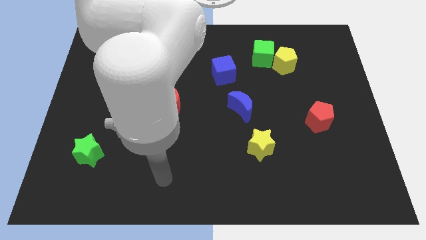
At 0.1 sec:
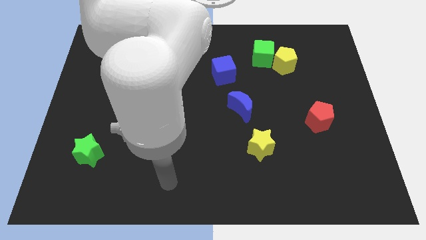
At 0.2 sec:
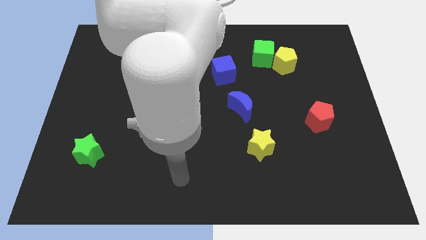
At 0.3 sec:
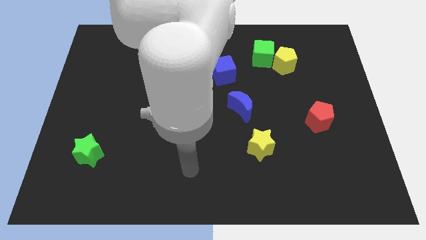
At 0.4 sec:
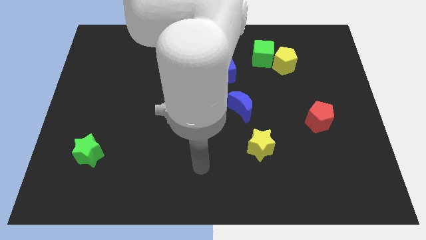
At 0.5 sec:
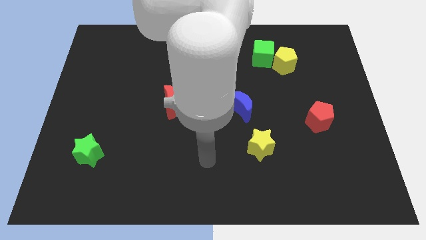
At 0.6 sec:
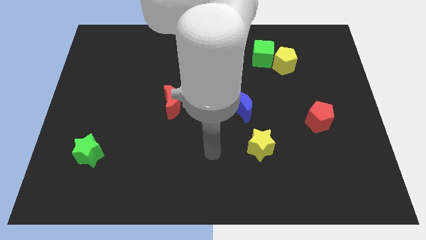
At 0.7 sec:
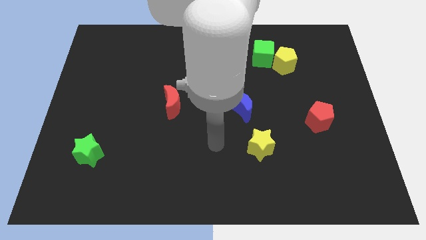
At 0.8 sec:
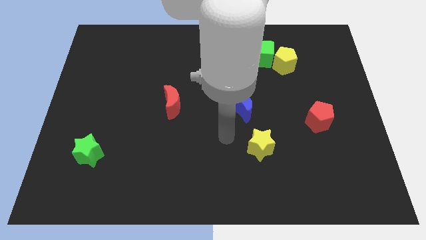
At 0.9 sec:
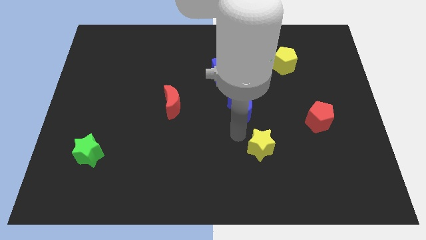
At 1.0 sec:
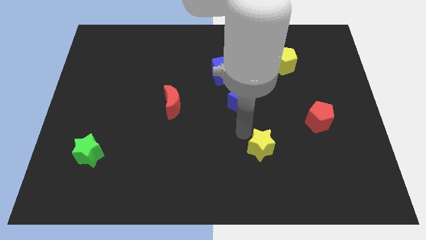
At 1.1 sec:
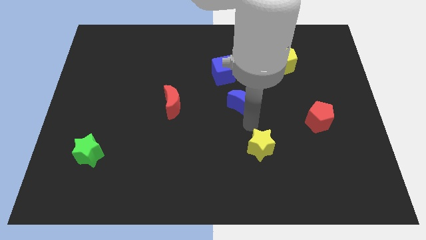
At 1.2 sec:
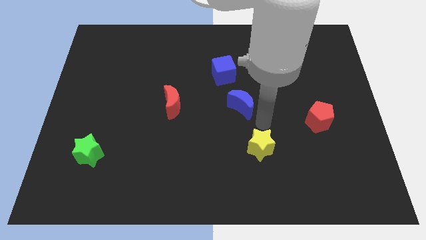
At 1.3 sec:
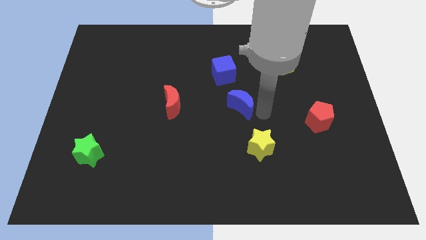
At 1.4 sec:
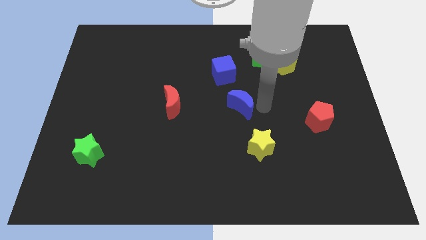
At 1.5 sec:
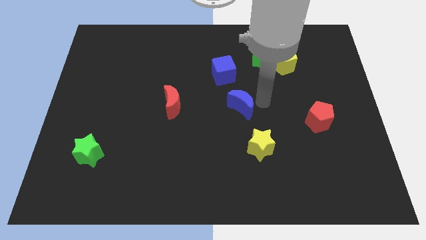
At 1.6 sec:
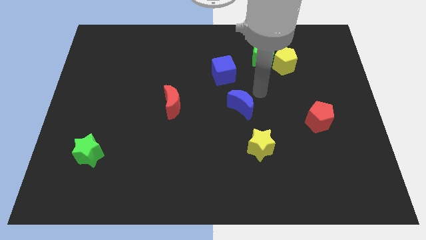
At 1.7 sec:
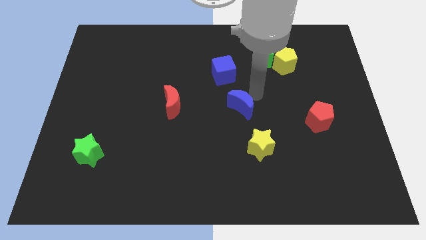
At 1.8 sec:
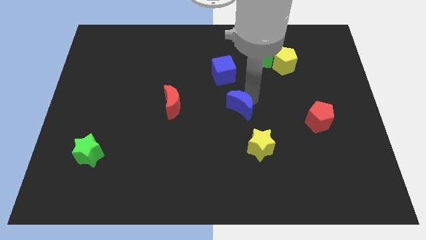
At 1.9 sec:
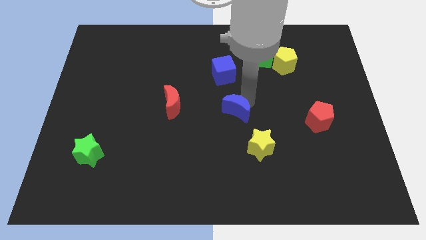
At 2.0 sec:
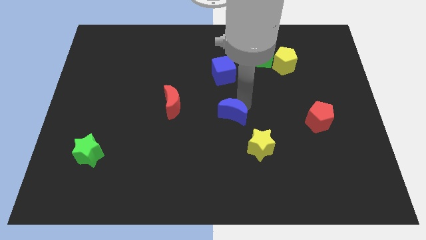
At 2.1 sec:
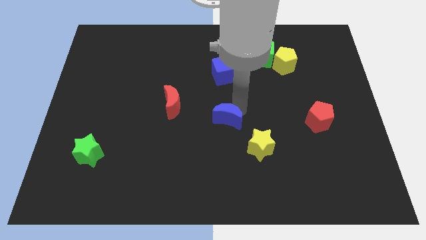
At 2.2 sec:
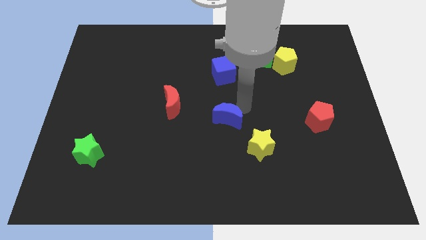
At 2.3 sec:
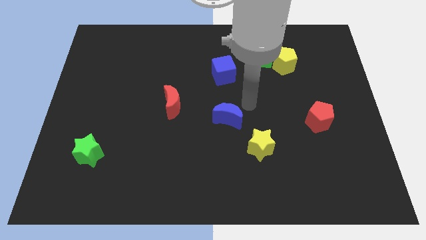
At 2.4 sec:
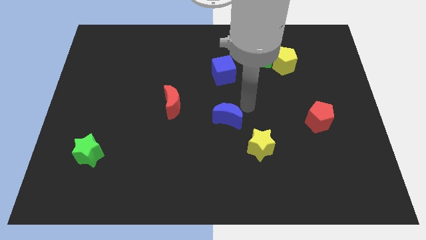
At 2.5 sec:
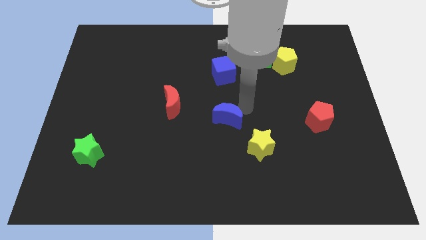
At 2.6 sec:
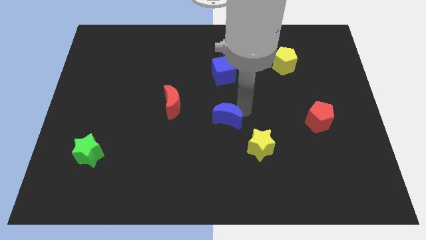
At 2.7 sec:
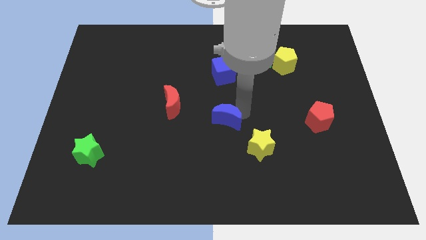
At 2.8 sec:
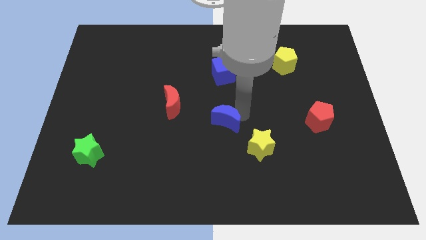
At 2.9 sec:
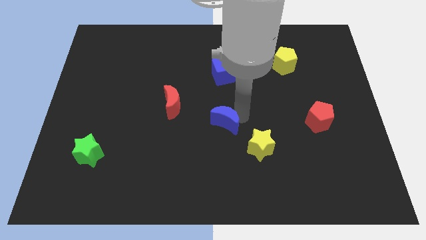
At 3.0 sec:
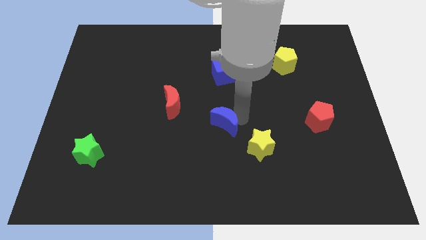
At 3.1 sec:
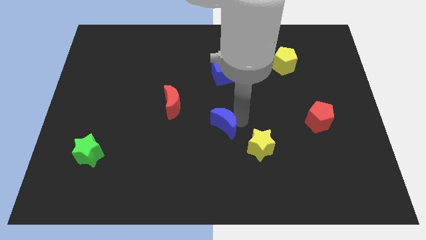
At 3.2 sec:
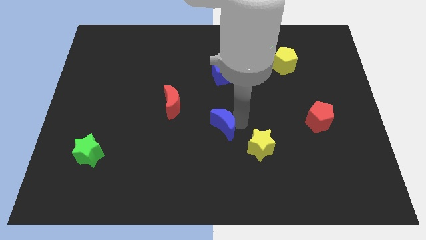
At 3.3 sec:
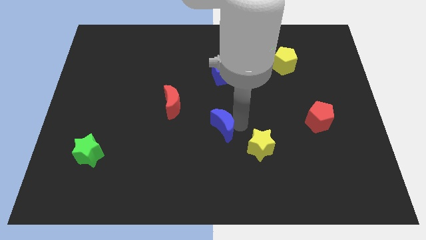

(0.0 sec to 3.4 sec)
move the blue moon a little bit down and left diagonally

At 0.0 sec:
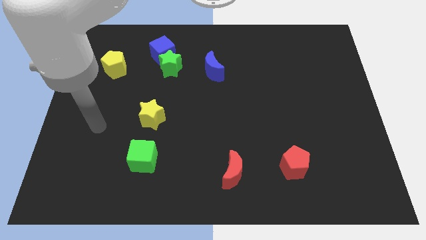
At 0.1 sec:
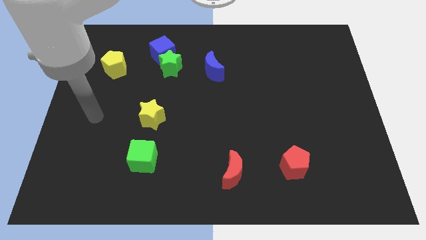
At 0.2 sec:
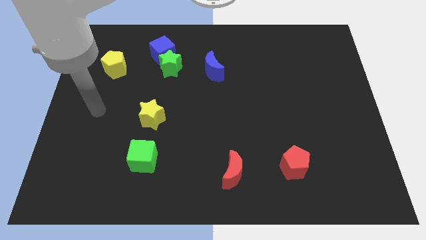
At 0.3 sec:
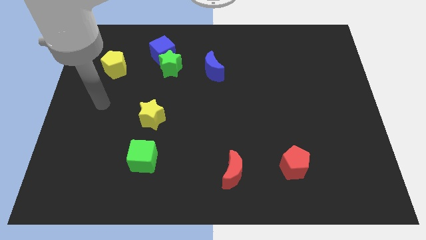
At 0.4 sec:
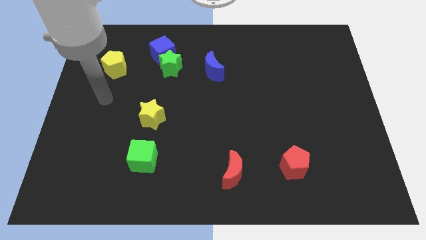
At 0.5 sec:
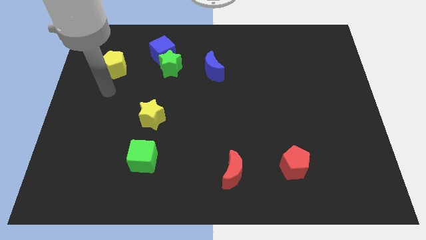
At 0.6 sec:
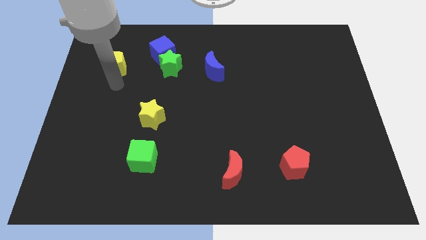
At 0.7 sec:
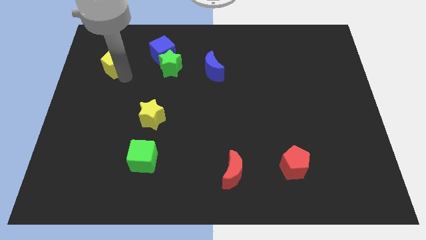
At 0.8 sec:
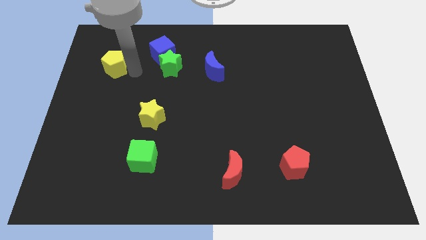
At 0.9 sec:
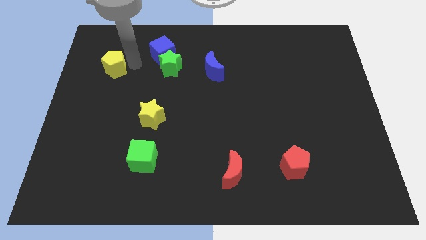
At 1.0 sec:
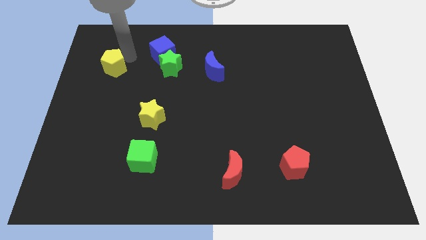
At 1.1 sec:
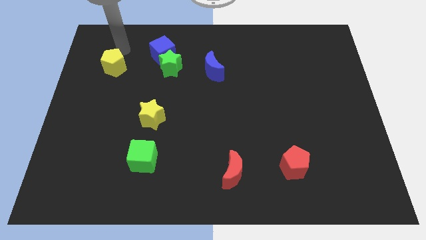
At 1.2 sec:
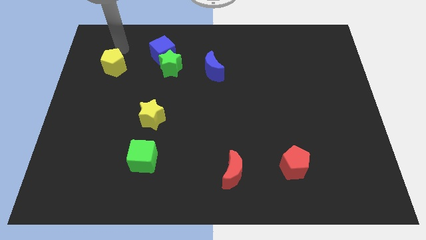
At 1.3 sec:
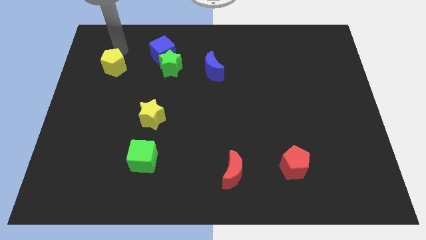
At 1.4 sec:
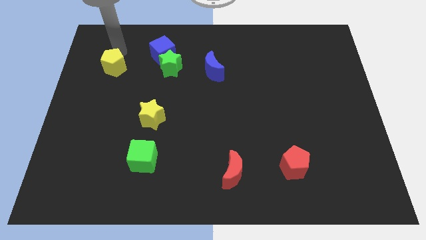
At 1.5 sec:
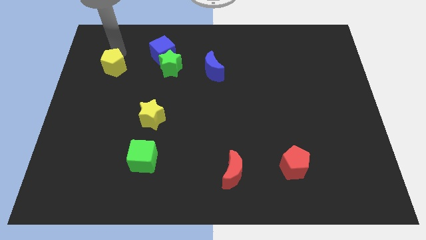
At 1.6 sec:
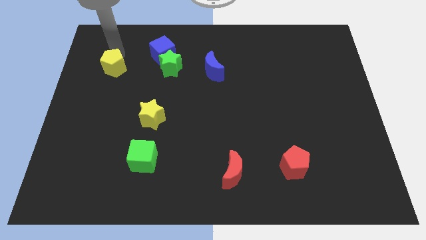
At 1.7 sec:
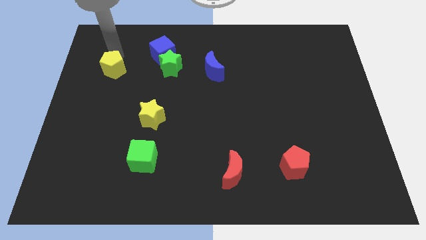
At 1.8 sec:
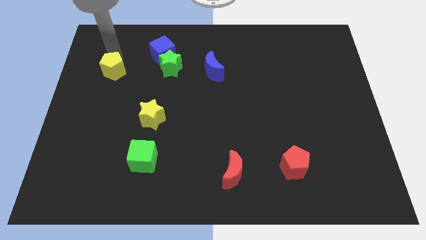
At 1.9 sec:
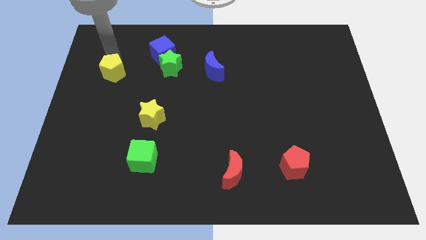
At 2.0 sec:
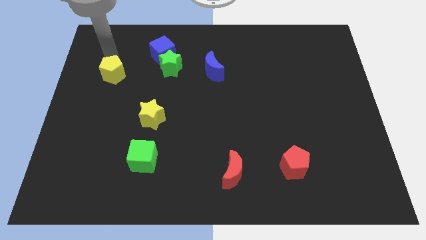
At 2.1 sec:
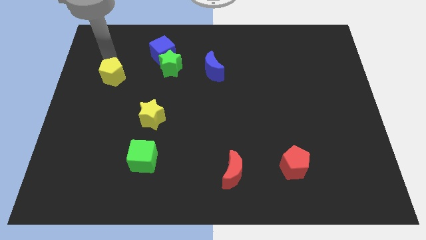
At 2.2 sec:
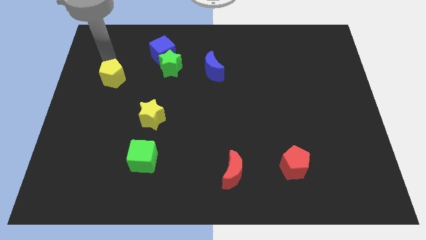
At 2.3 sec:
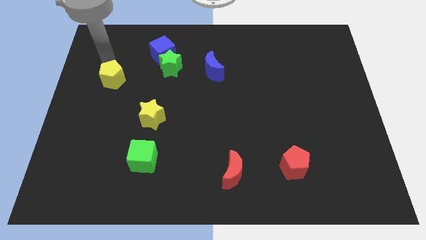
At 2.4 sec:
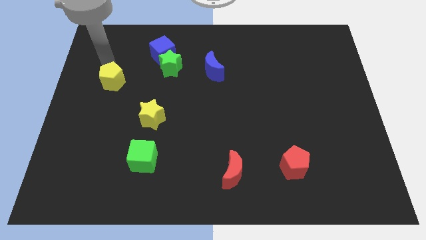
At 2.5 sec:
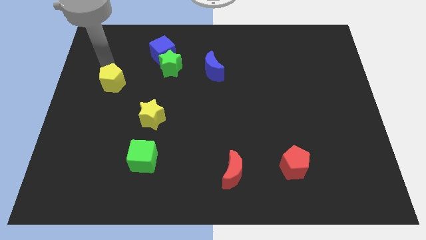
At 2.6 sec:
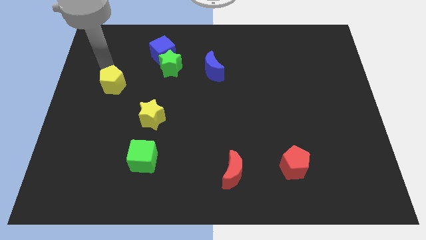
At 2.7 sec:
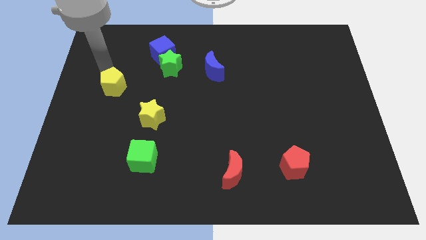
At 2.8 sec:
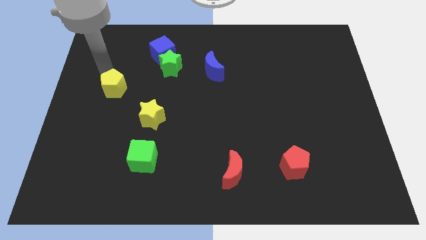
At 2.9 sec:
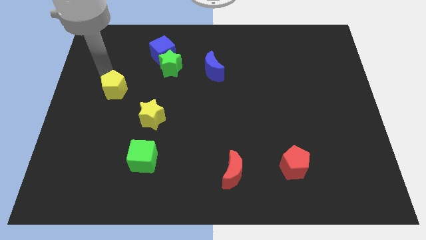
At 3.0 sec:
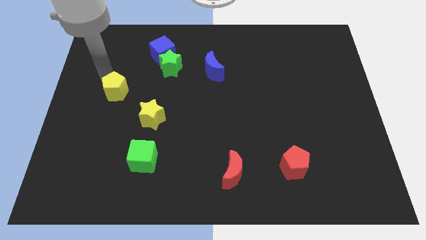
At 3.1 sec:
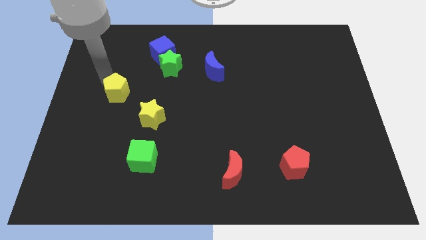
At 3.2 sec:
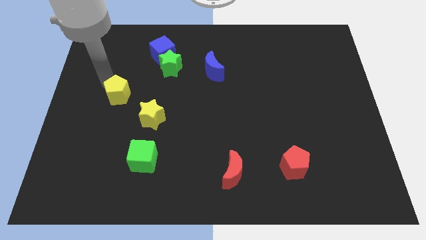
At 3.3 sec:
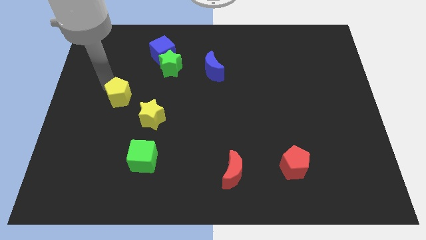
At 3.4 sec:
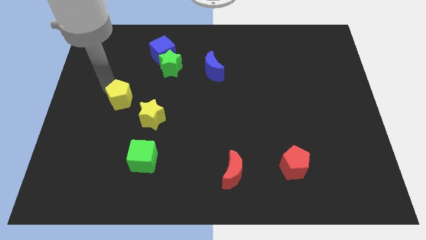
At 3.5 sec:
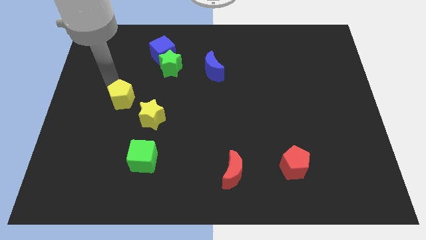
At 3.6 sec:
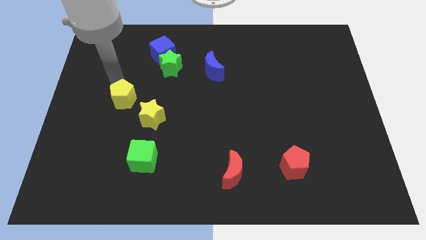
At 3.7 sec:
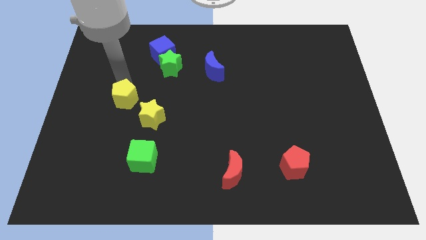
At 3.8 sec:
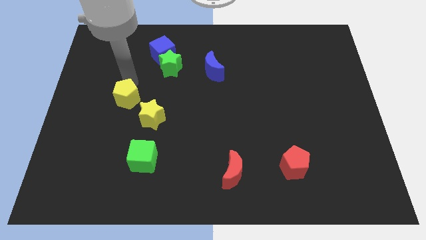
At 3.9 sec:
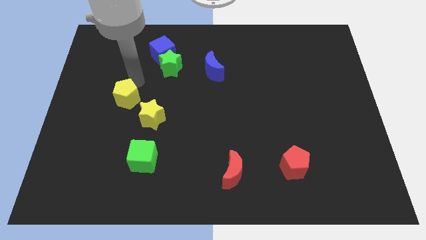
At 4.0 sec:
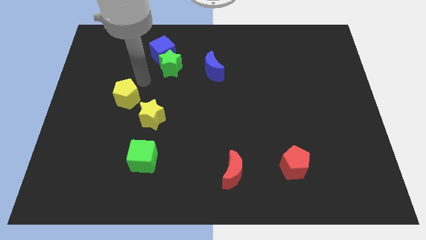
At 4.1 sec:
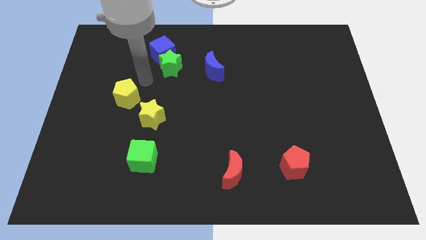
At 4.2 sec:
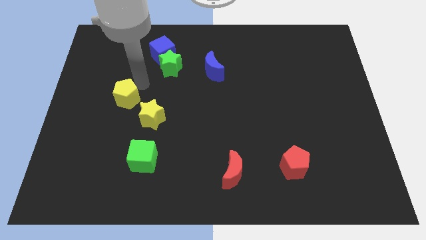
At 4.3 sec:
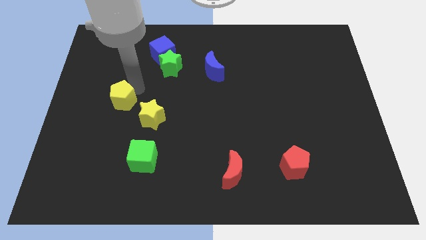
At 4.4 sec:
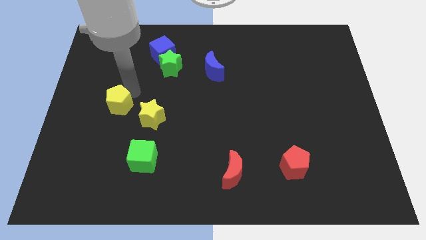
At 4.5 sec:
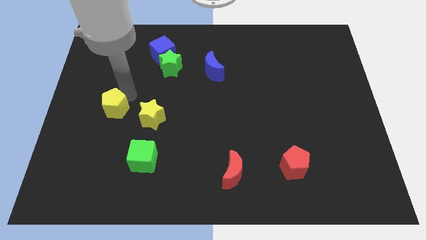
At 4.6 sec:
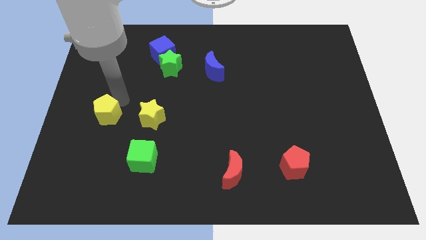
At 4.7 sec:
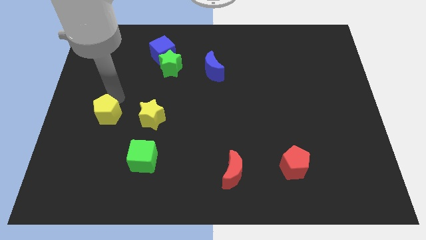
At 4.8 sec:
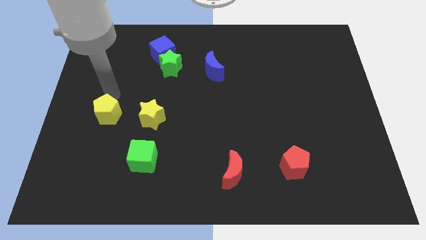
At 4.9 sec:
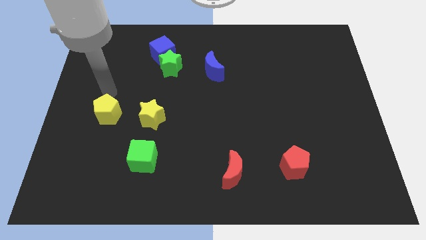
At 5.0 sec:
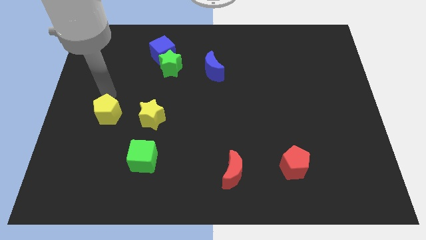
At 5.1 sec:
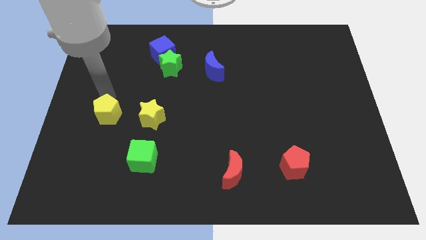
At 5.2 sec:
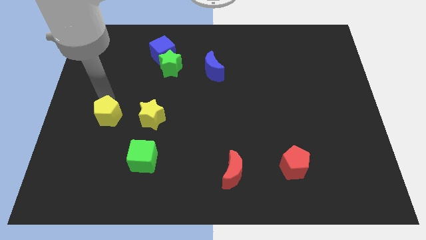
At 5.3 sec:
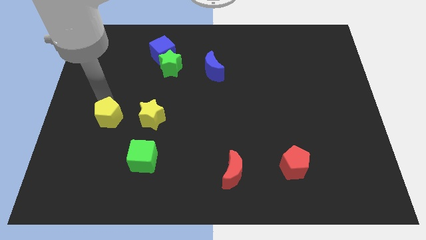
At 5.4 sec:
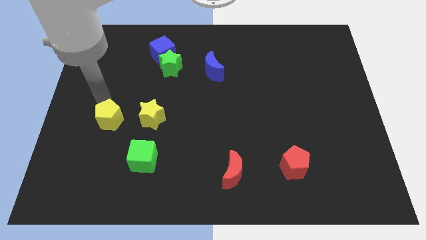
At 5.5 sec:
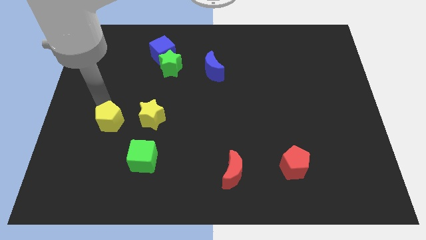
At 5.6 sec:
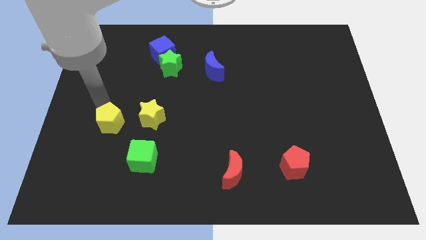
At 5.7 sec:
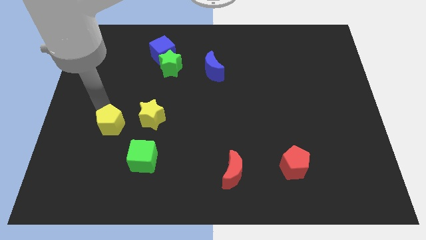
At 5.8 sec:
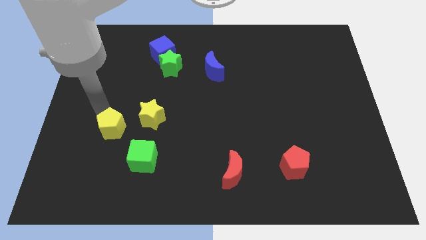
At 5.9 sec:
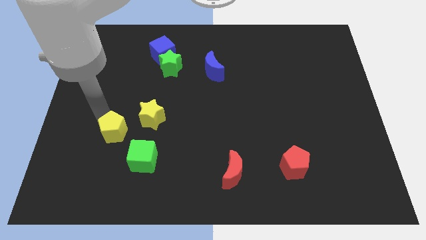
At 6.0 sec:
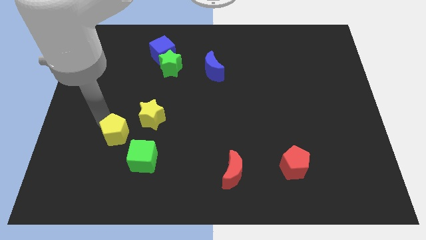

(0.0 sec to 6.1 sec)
move the yellow pentagon downwards
